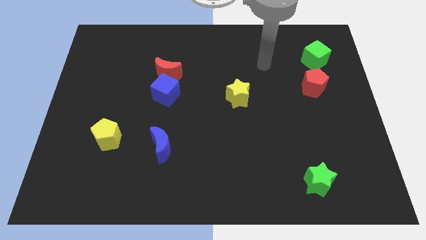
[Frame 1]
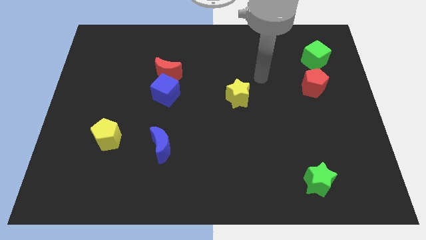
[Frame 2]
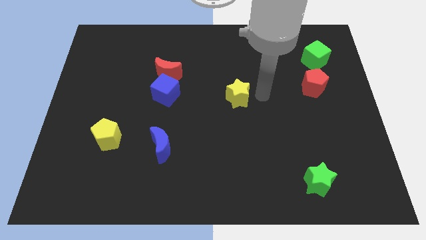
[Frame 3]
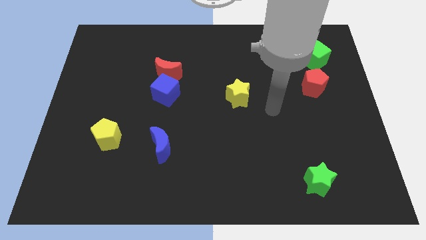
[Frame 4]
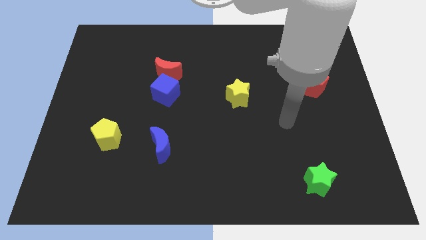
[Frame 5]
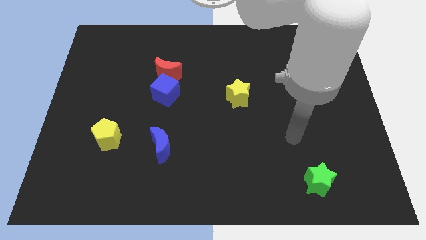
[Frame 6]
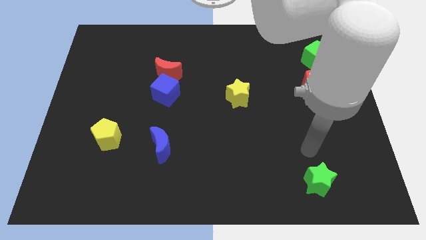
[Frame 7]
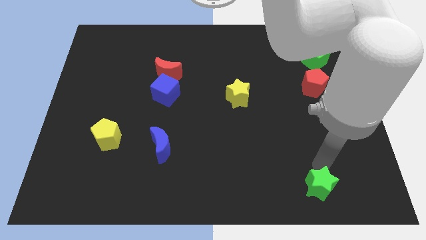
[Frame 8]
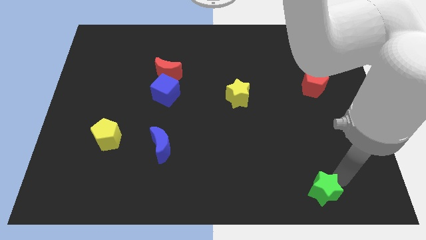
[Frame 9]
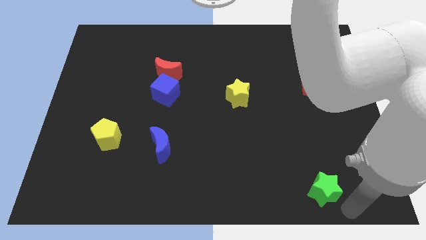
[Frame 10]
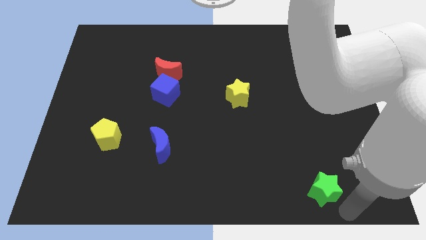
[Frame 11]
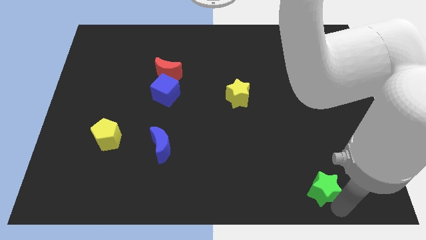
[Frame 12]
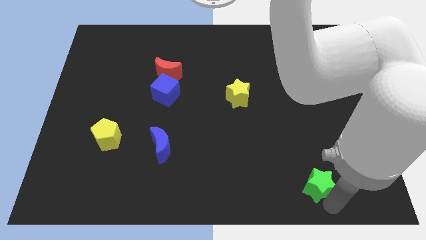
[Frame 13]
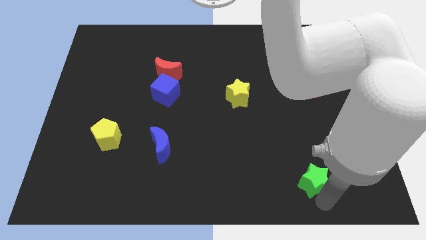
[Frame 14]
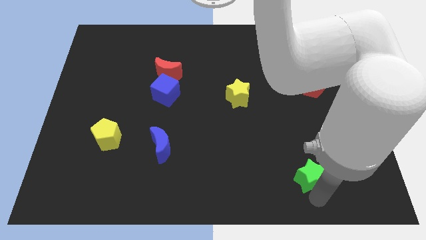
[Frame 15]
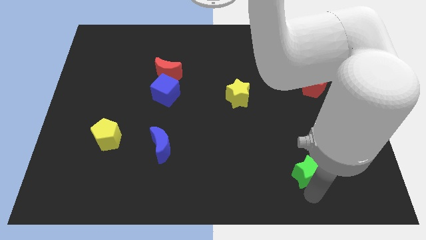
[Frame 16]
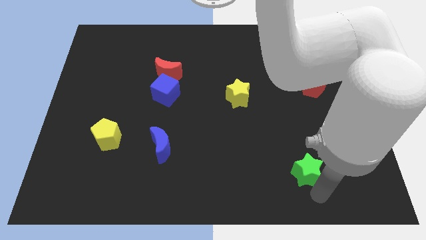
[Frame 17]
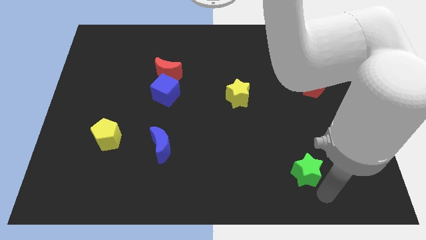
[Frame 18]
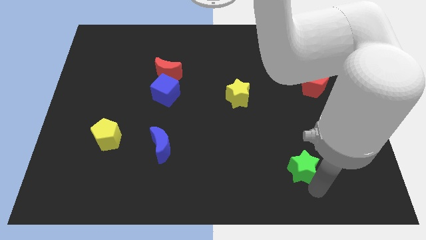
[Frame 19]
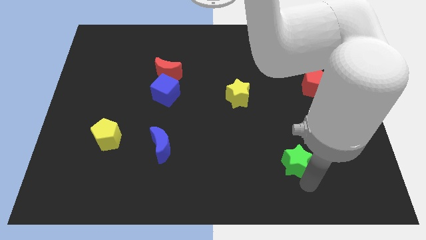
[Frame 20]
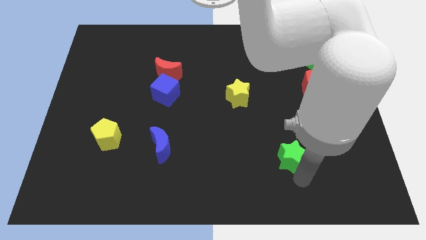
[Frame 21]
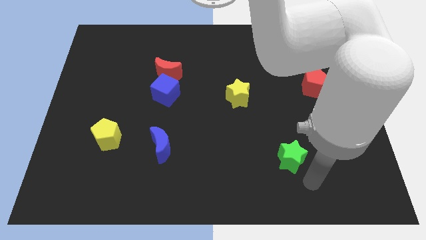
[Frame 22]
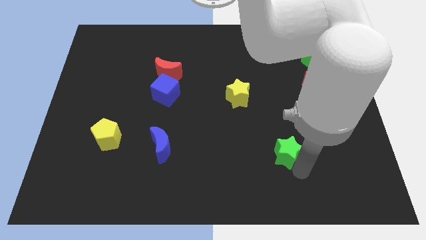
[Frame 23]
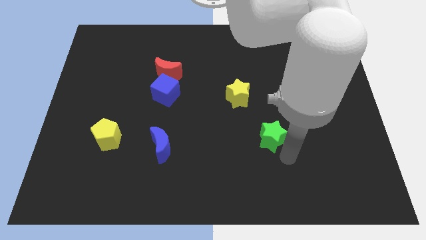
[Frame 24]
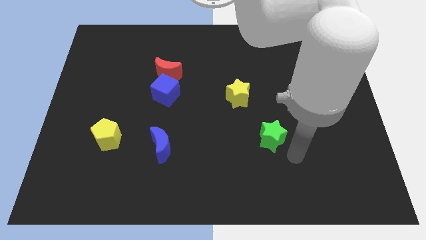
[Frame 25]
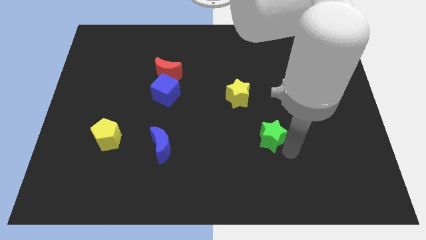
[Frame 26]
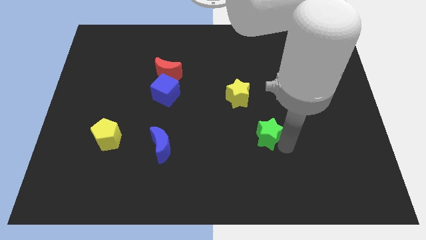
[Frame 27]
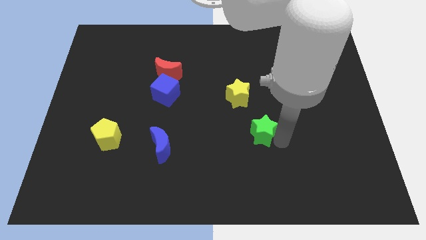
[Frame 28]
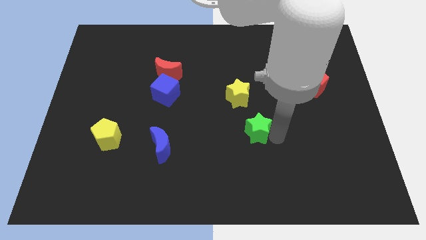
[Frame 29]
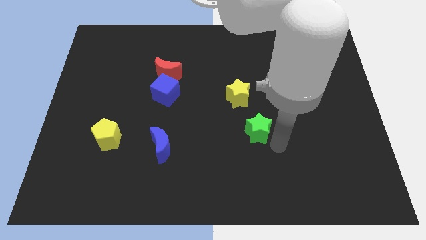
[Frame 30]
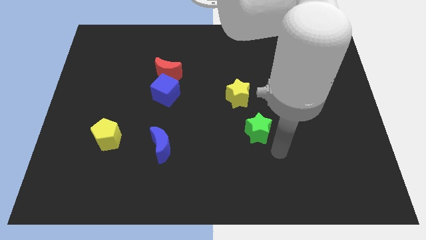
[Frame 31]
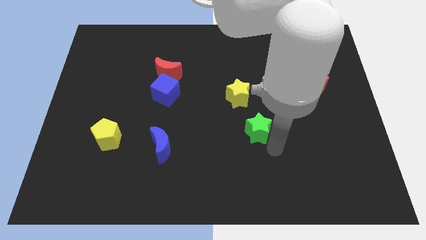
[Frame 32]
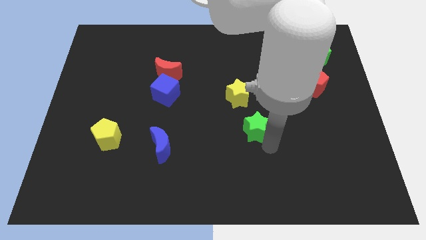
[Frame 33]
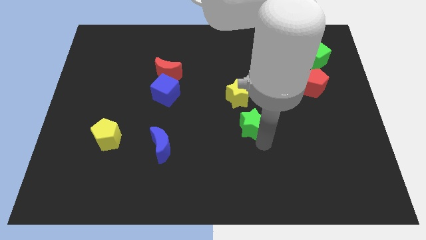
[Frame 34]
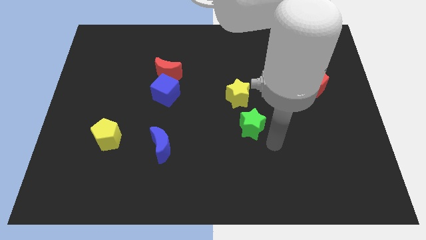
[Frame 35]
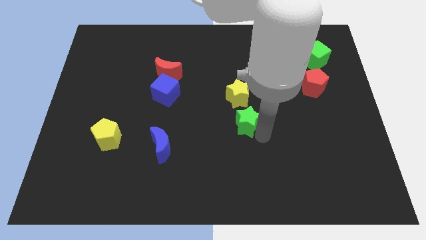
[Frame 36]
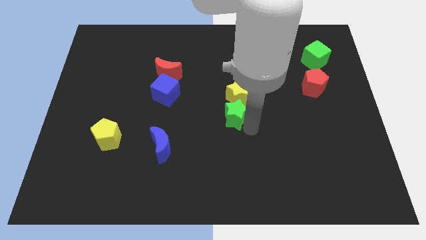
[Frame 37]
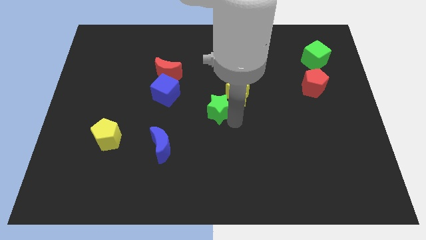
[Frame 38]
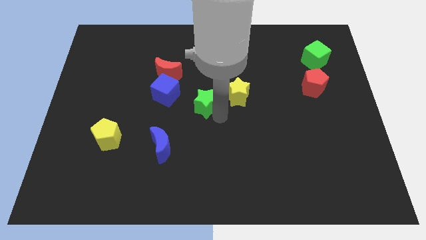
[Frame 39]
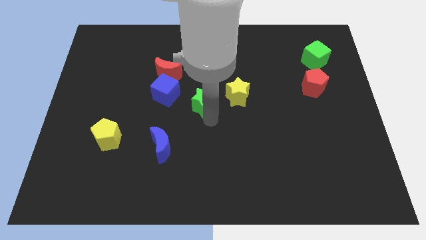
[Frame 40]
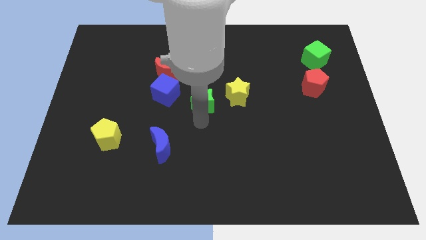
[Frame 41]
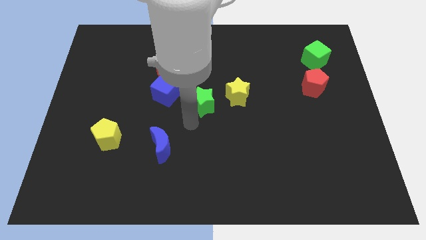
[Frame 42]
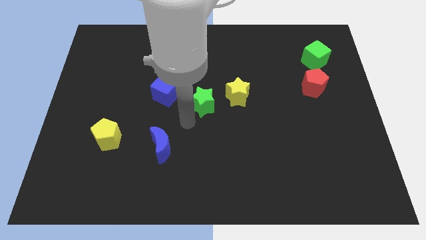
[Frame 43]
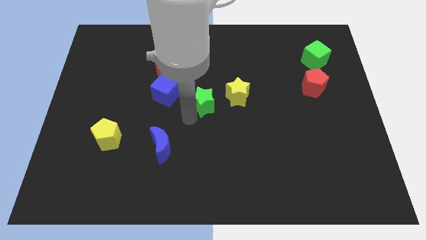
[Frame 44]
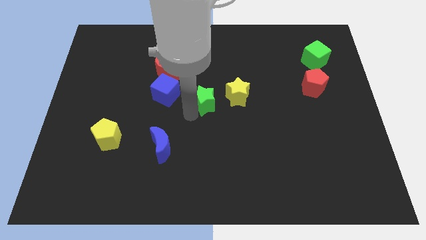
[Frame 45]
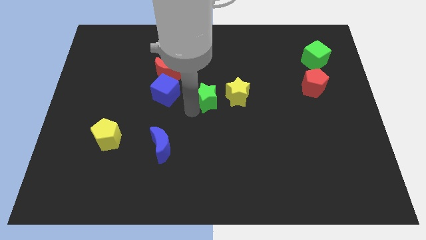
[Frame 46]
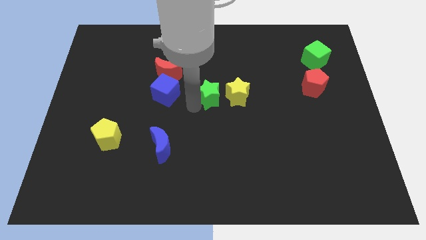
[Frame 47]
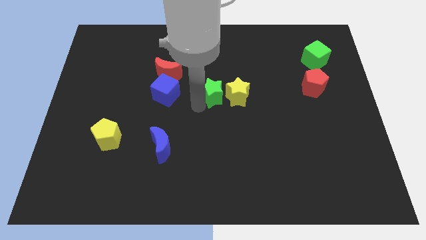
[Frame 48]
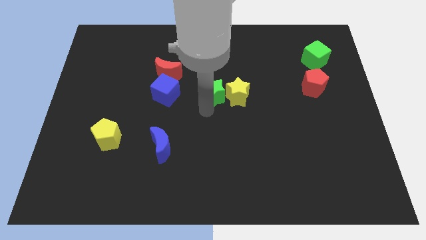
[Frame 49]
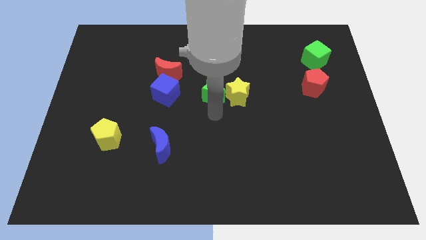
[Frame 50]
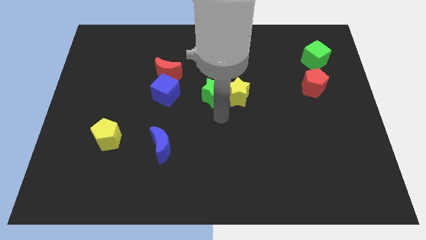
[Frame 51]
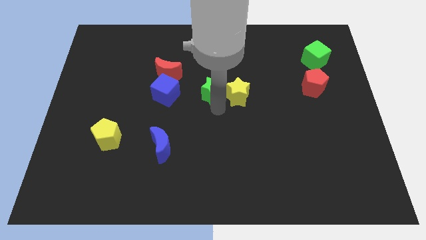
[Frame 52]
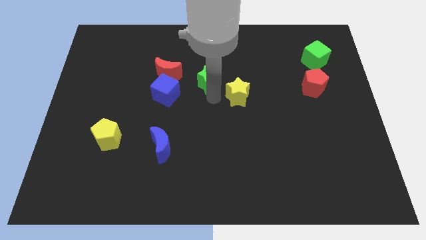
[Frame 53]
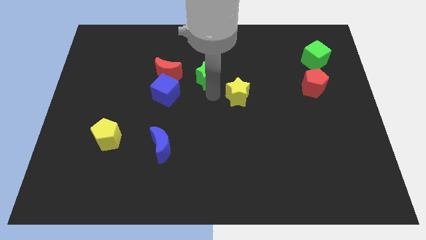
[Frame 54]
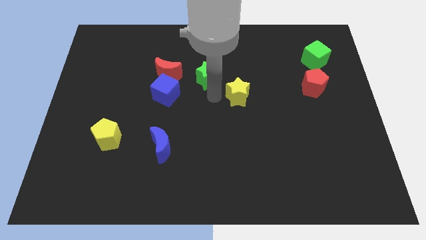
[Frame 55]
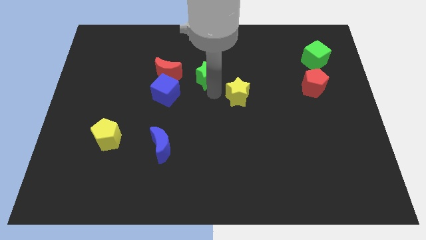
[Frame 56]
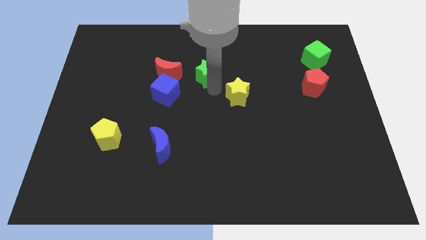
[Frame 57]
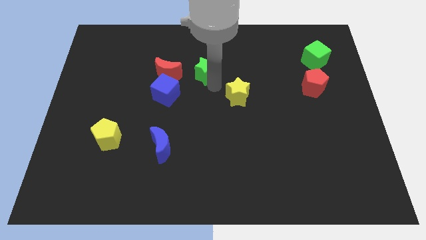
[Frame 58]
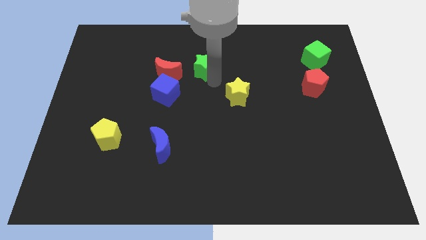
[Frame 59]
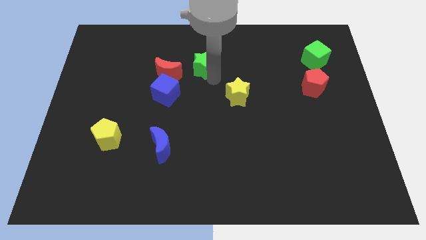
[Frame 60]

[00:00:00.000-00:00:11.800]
move the green star to the top right of the red moon
